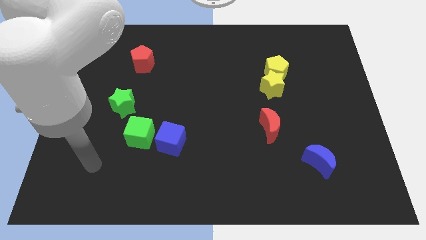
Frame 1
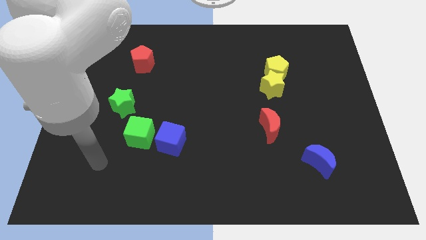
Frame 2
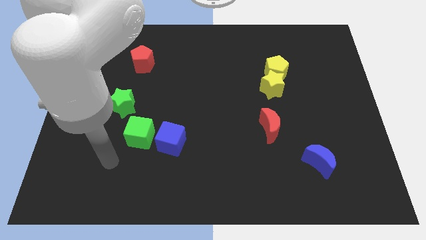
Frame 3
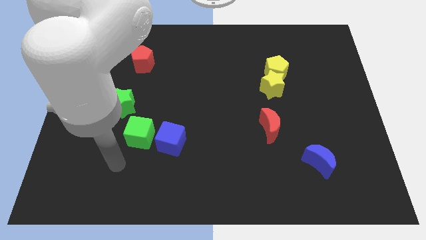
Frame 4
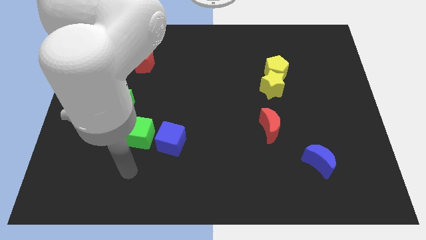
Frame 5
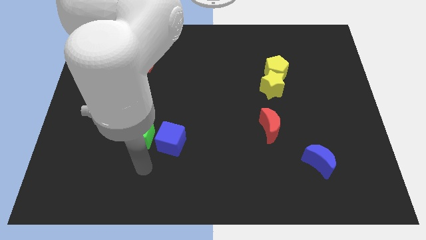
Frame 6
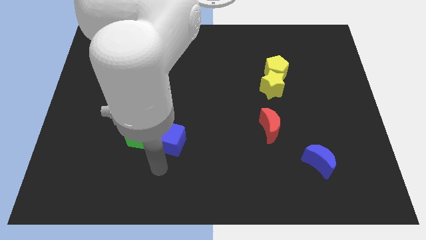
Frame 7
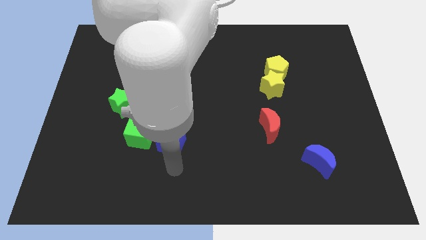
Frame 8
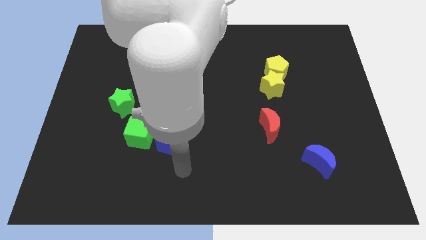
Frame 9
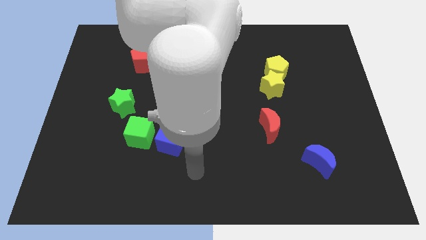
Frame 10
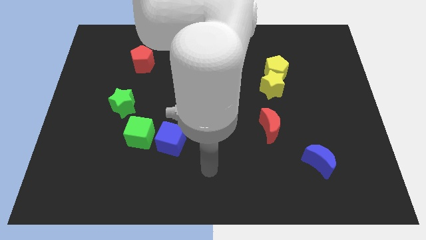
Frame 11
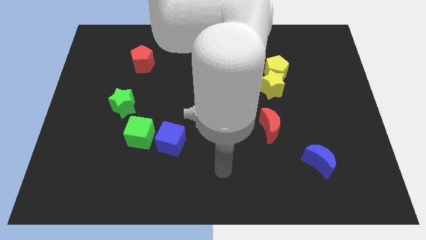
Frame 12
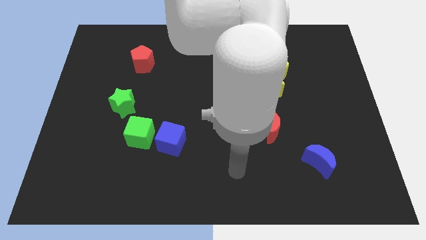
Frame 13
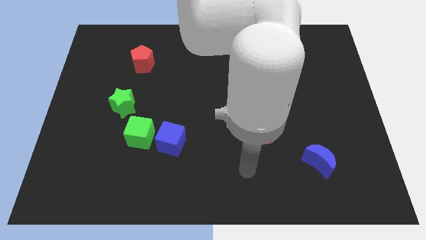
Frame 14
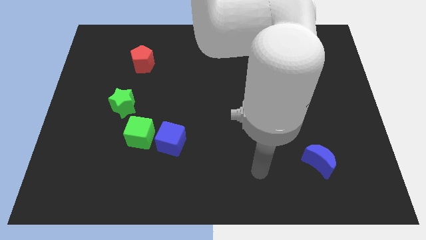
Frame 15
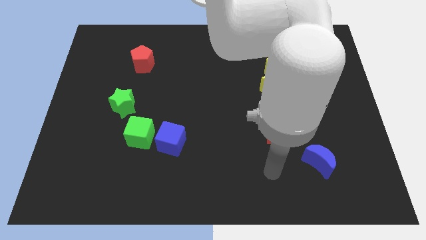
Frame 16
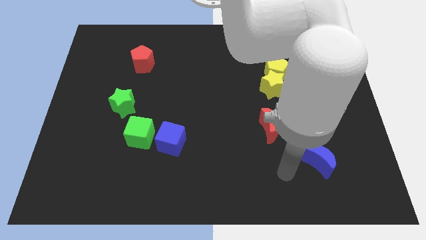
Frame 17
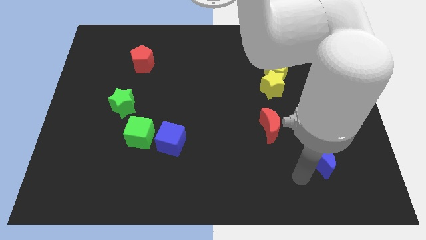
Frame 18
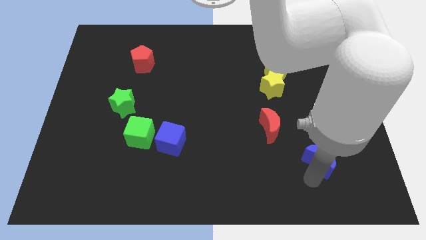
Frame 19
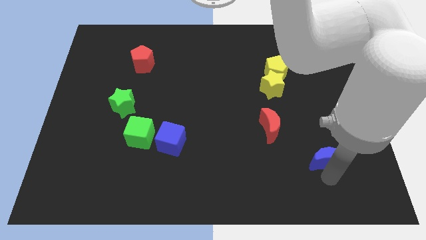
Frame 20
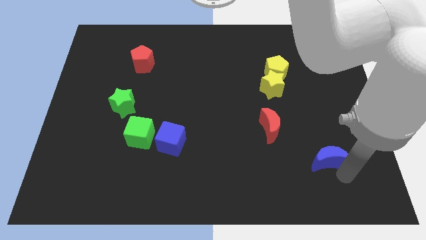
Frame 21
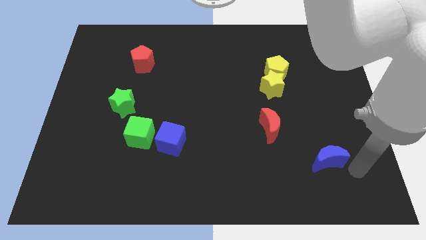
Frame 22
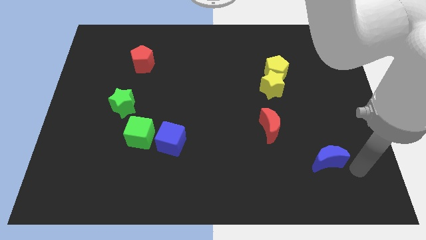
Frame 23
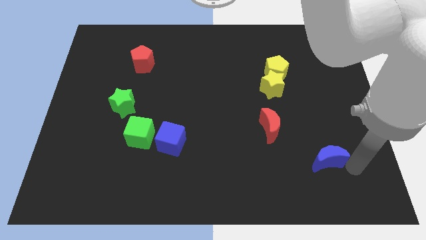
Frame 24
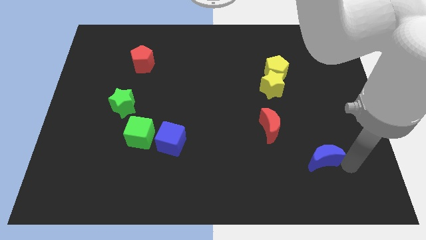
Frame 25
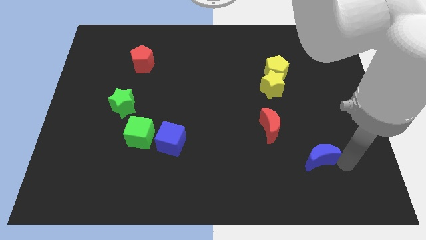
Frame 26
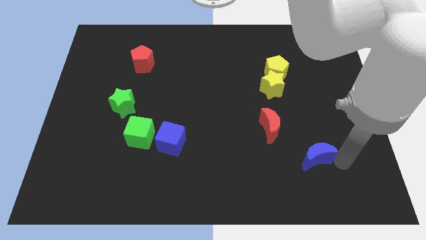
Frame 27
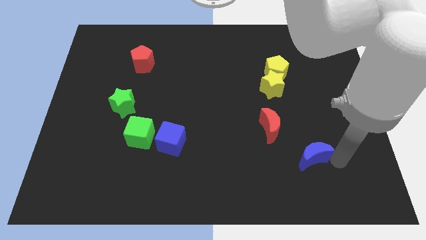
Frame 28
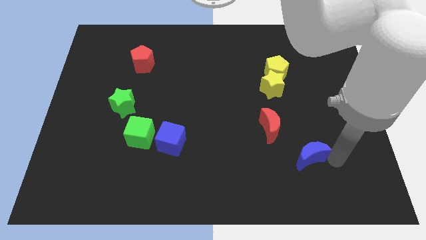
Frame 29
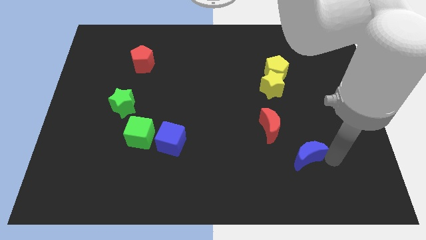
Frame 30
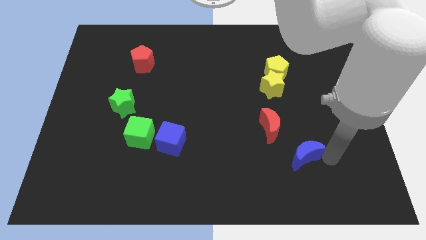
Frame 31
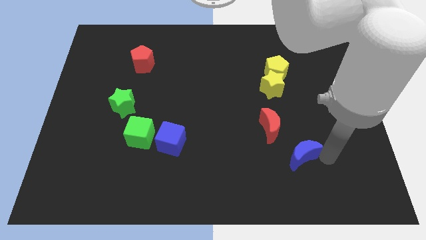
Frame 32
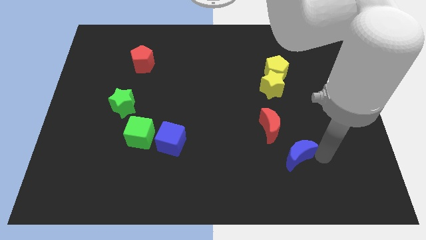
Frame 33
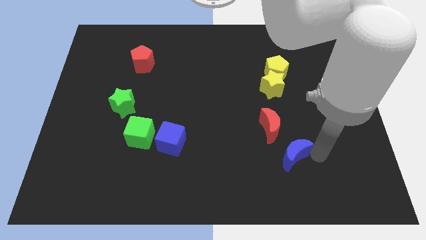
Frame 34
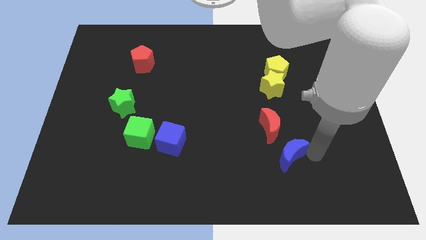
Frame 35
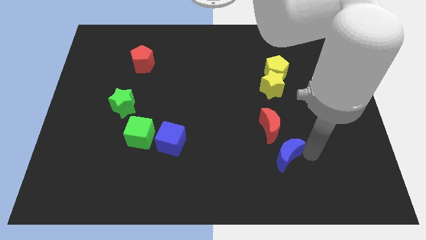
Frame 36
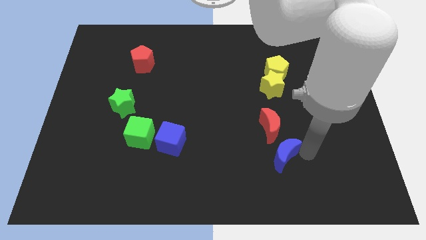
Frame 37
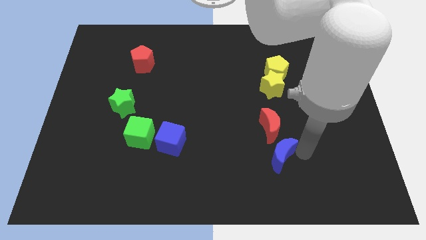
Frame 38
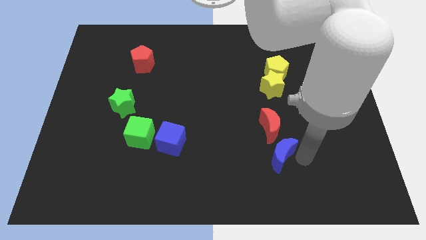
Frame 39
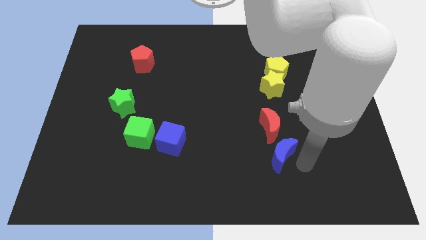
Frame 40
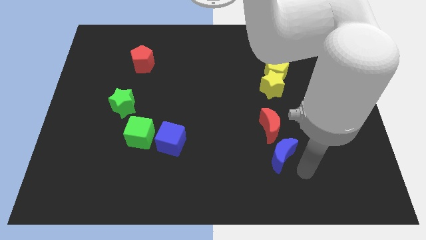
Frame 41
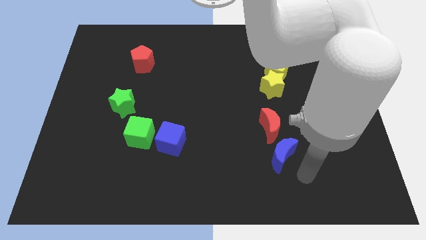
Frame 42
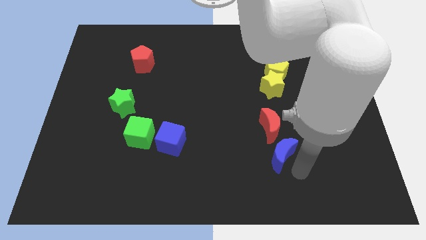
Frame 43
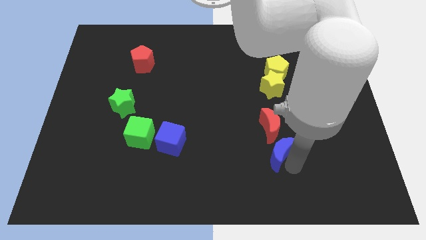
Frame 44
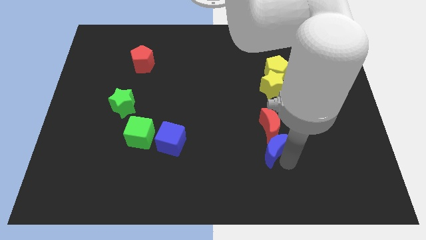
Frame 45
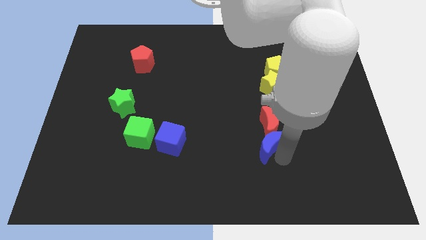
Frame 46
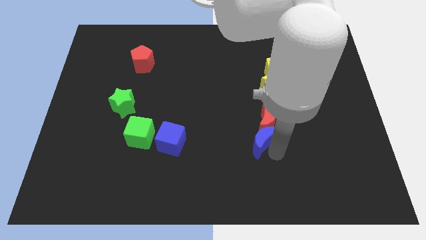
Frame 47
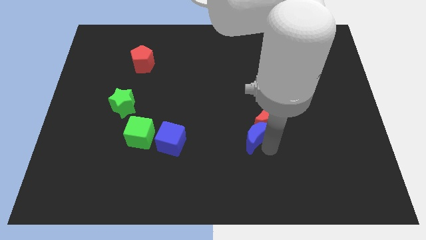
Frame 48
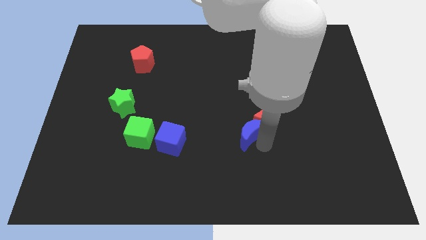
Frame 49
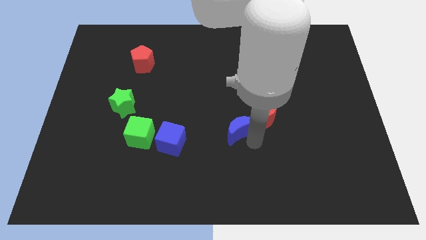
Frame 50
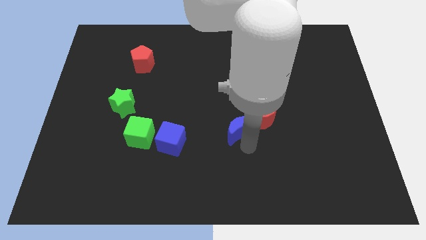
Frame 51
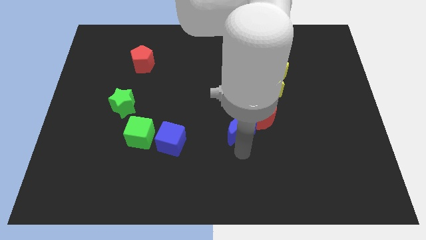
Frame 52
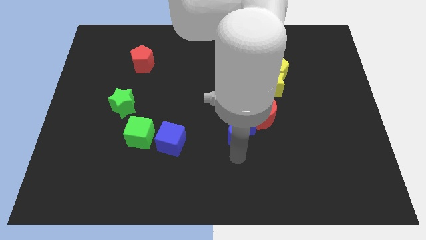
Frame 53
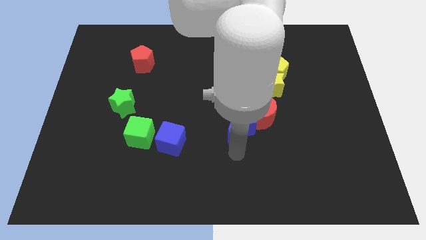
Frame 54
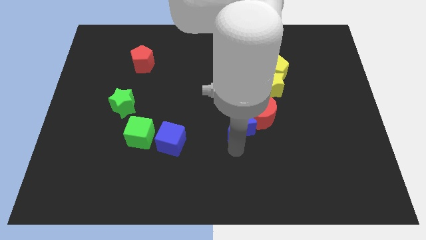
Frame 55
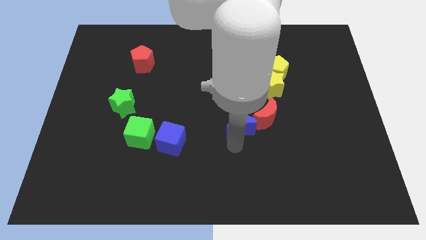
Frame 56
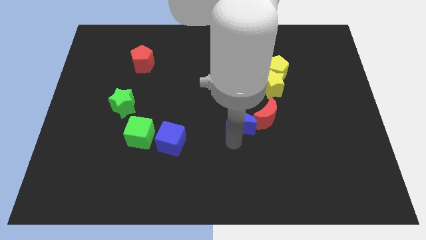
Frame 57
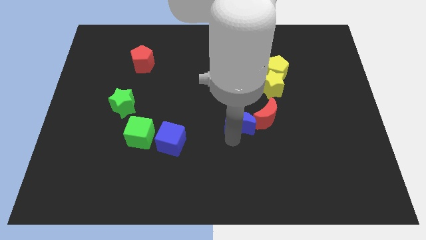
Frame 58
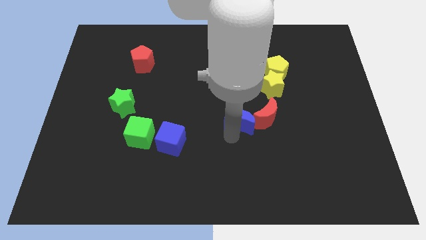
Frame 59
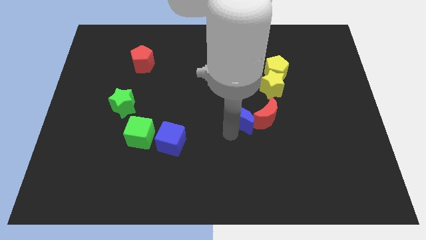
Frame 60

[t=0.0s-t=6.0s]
push the blue moon to the top left side of the red moon

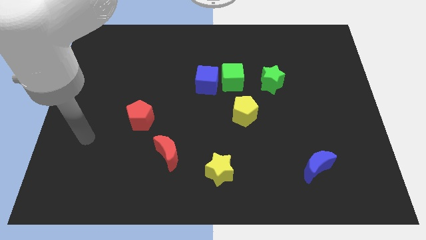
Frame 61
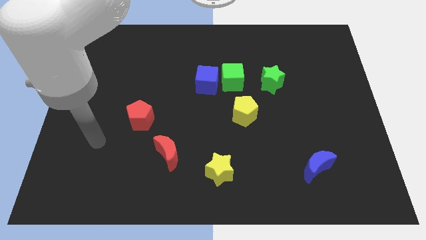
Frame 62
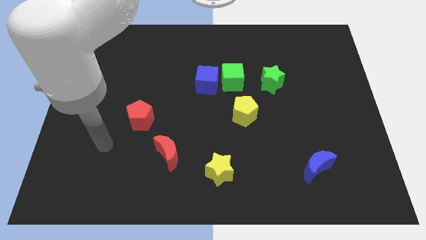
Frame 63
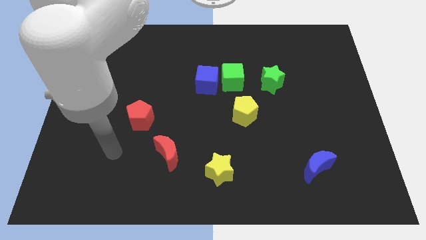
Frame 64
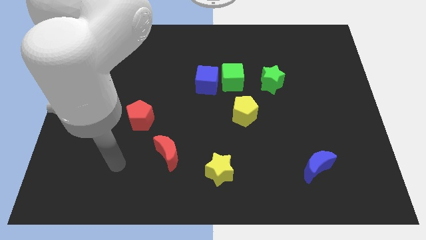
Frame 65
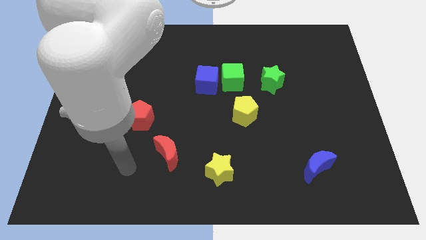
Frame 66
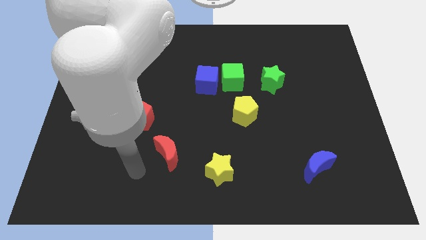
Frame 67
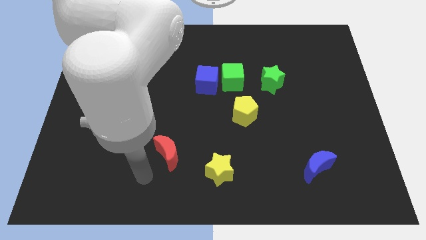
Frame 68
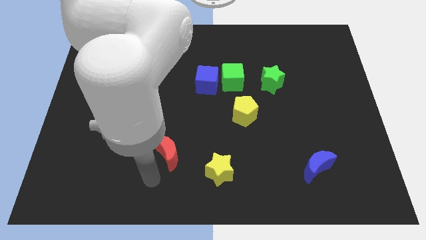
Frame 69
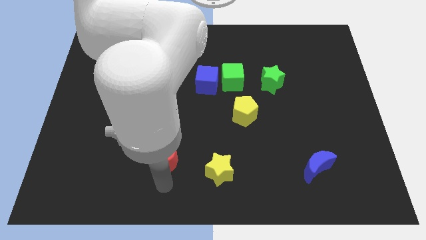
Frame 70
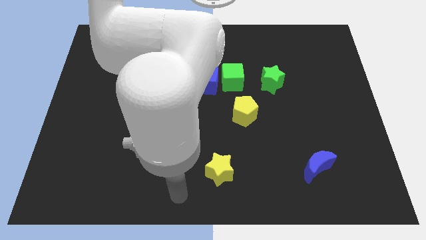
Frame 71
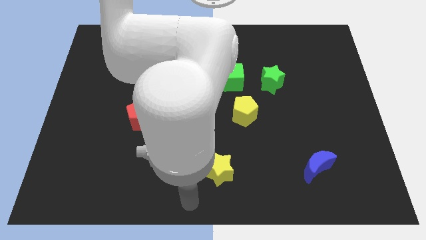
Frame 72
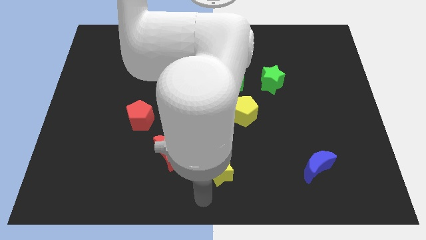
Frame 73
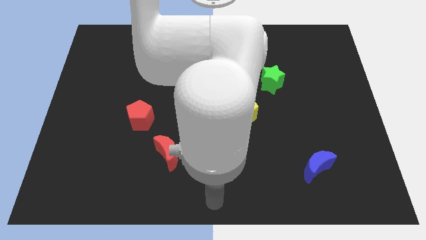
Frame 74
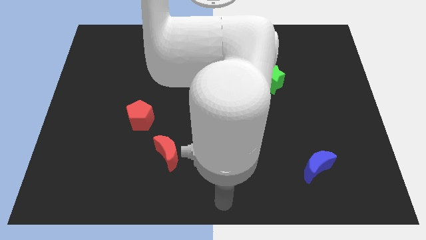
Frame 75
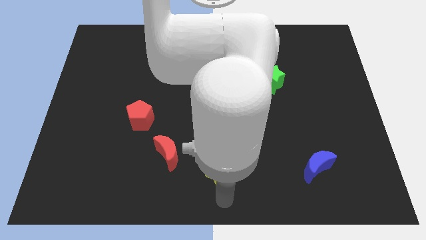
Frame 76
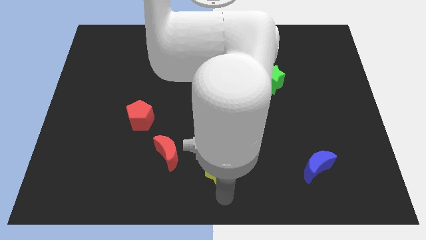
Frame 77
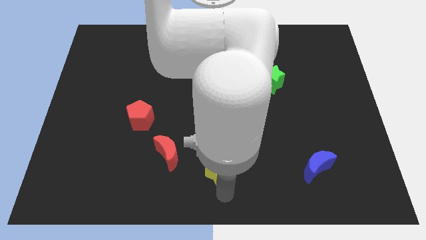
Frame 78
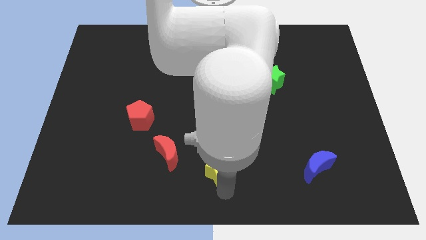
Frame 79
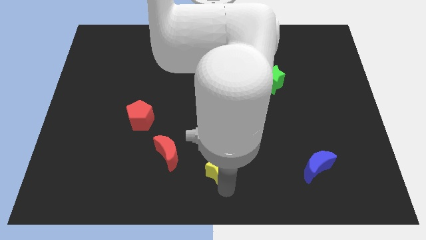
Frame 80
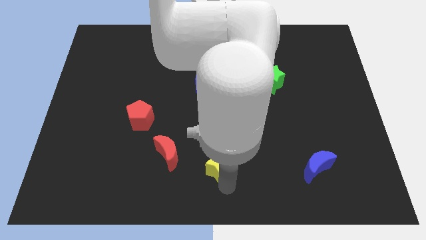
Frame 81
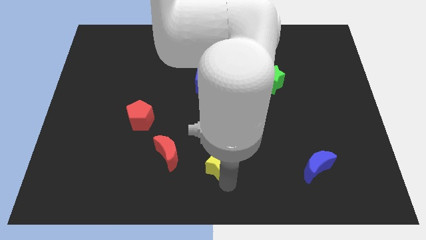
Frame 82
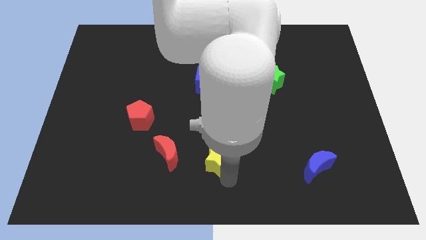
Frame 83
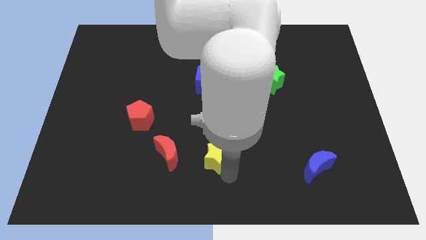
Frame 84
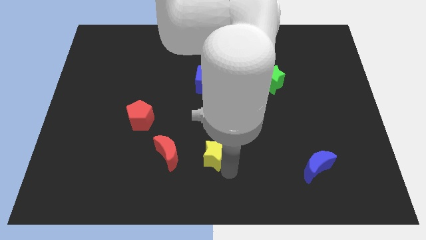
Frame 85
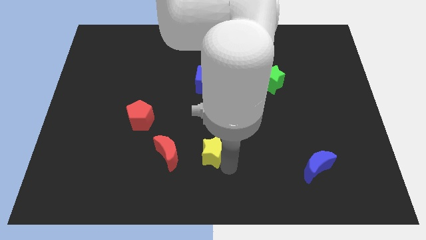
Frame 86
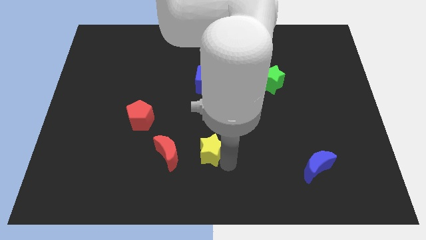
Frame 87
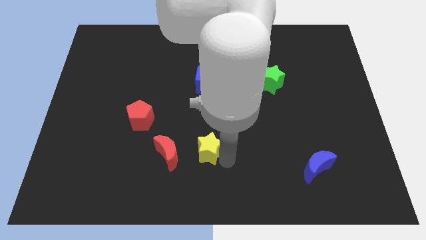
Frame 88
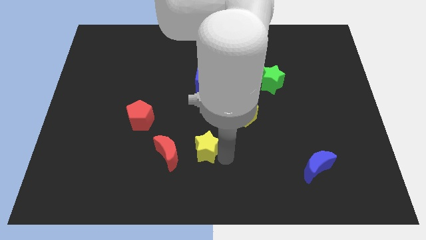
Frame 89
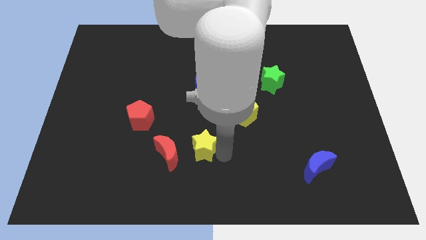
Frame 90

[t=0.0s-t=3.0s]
slide the yellow star to the top right side of the red moon
